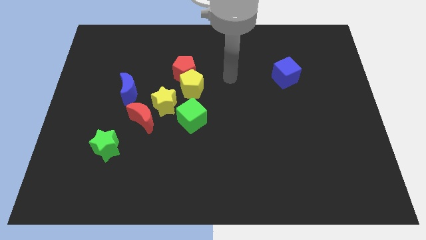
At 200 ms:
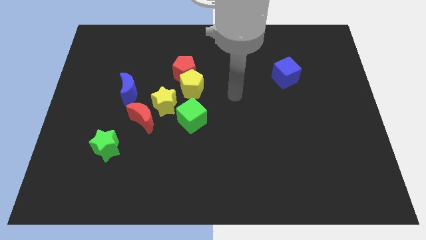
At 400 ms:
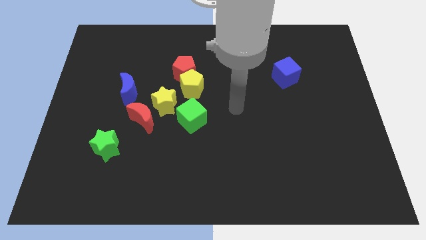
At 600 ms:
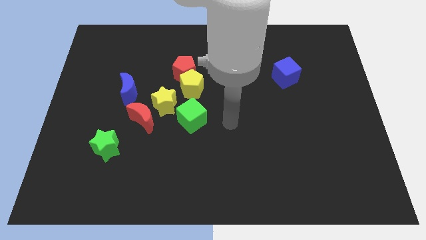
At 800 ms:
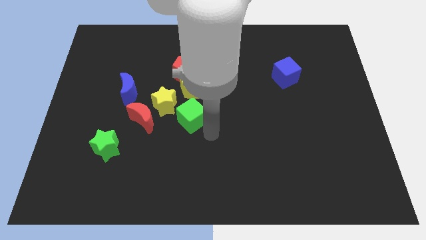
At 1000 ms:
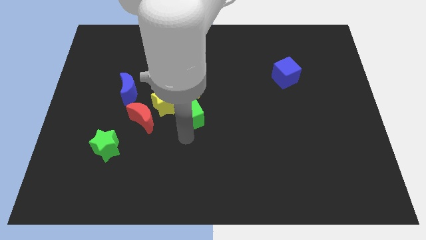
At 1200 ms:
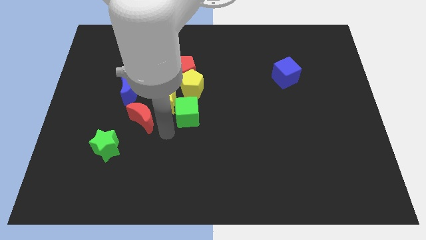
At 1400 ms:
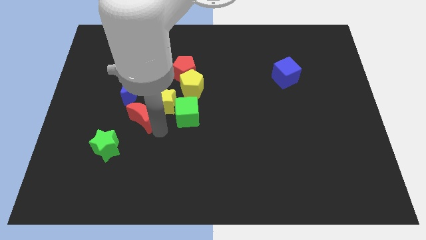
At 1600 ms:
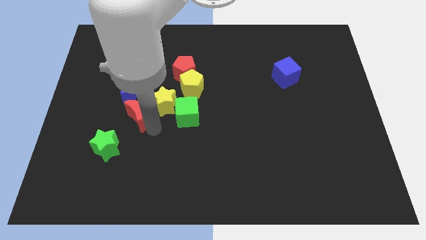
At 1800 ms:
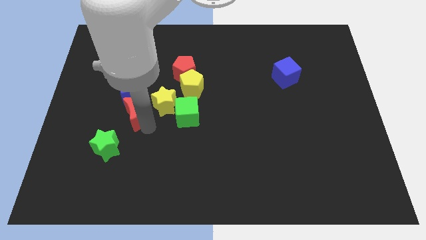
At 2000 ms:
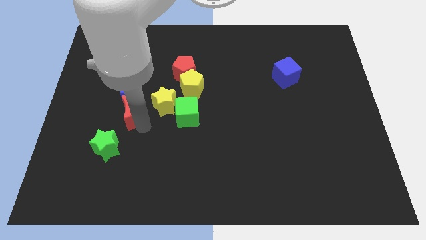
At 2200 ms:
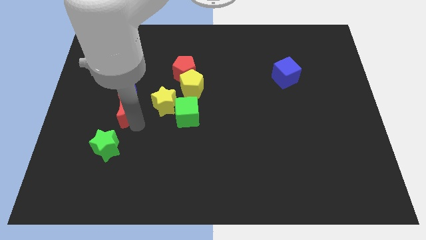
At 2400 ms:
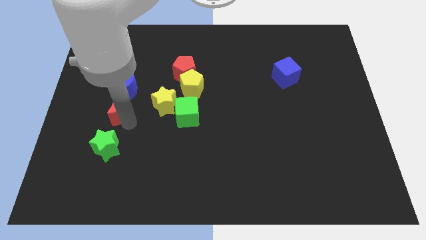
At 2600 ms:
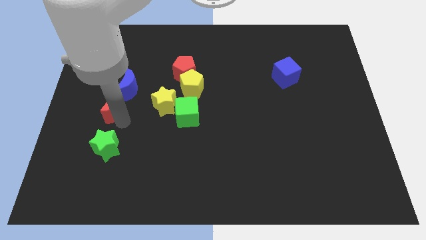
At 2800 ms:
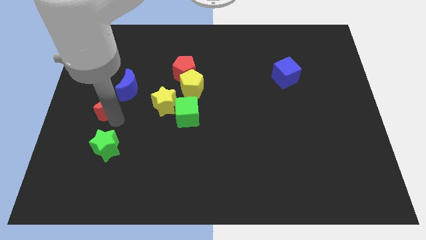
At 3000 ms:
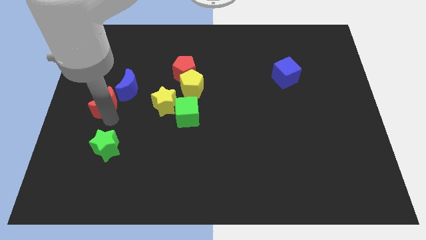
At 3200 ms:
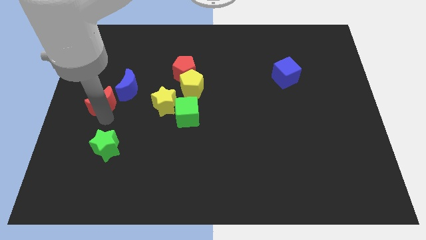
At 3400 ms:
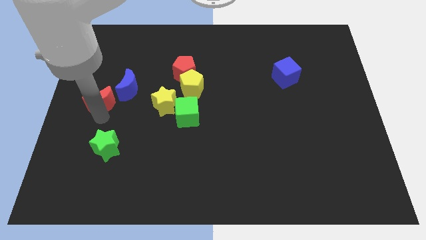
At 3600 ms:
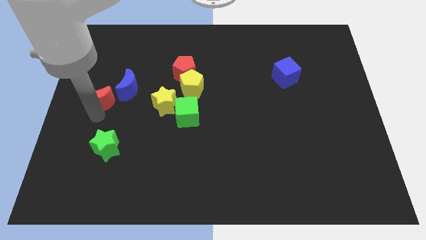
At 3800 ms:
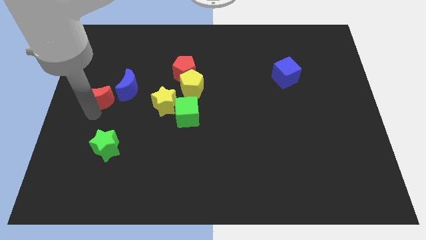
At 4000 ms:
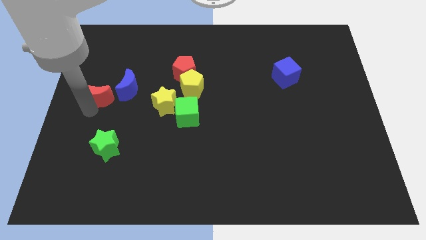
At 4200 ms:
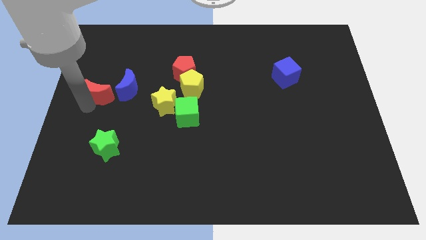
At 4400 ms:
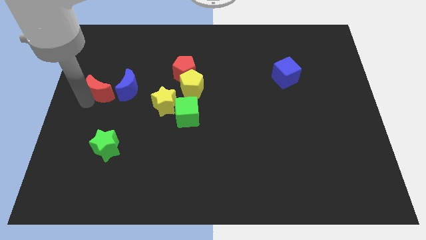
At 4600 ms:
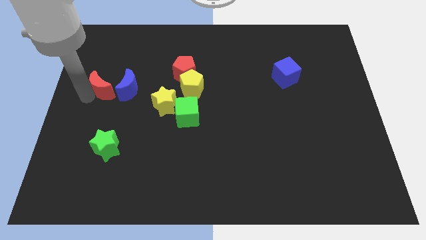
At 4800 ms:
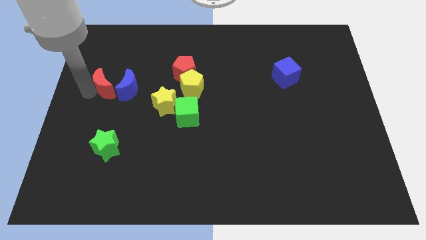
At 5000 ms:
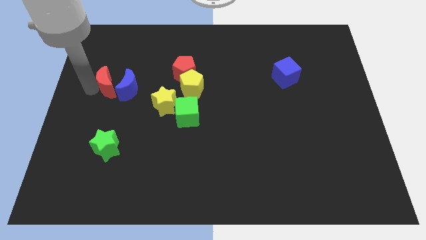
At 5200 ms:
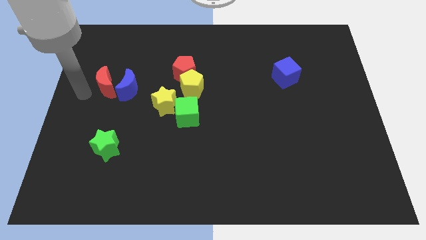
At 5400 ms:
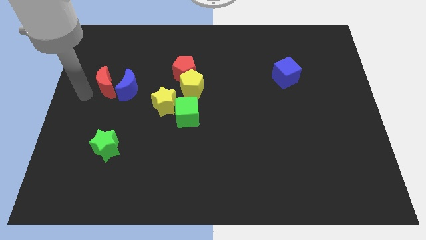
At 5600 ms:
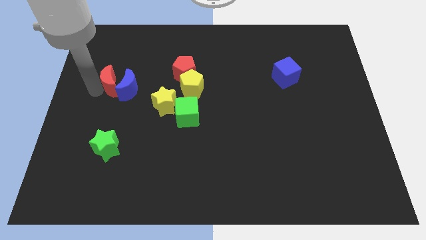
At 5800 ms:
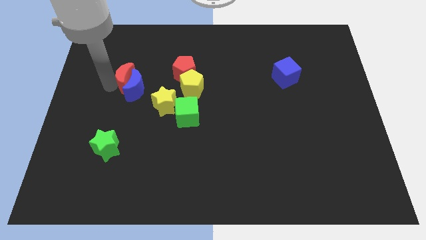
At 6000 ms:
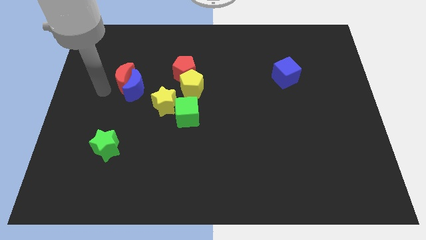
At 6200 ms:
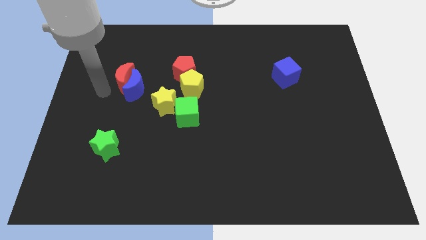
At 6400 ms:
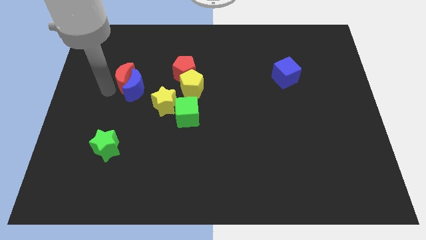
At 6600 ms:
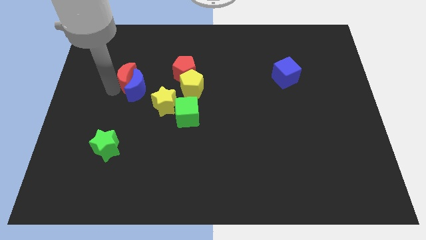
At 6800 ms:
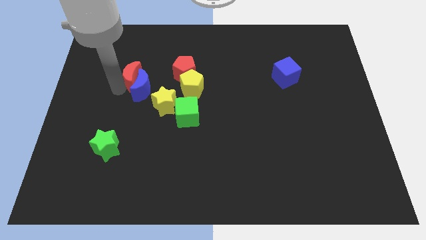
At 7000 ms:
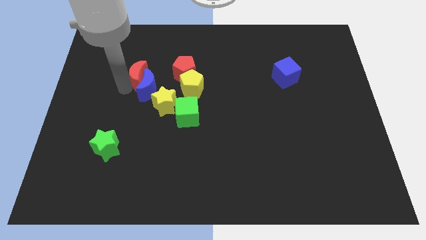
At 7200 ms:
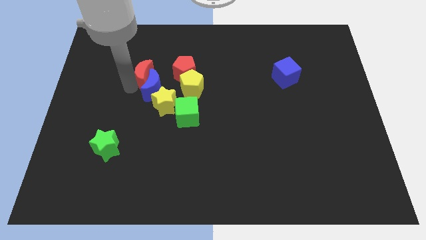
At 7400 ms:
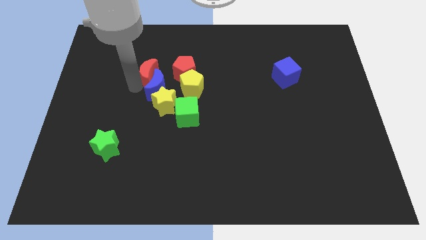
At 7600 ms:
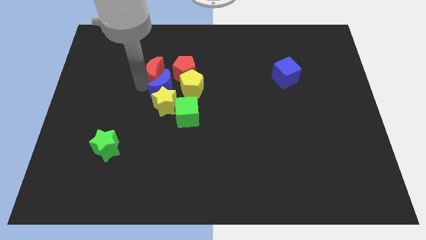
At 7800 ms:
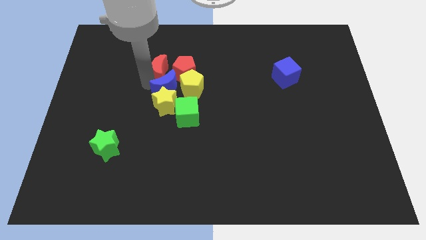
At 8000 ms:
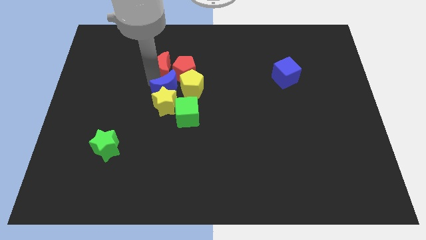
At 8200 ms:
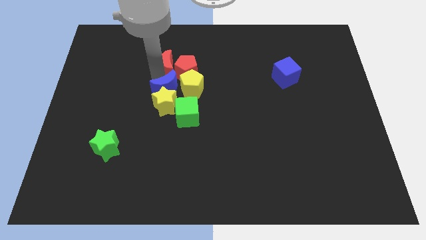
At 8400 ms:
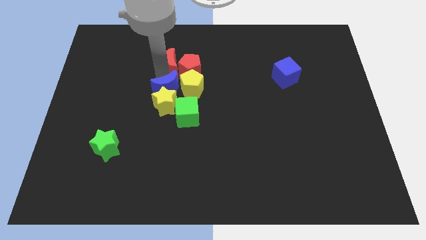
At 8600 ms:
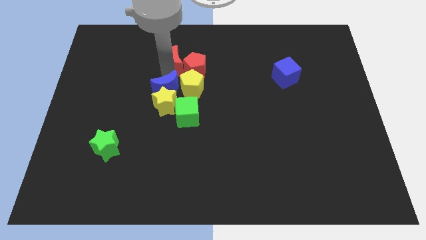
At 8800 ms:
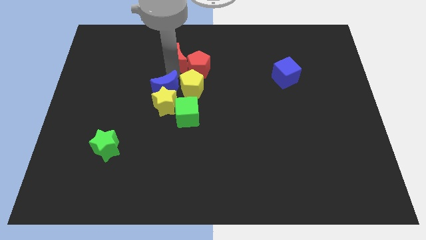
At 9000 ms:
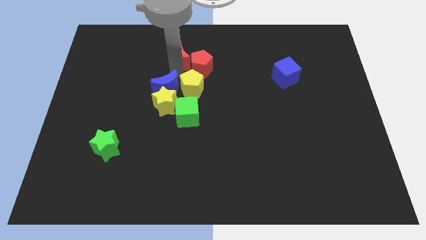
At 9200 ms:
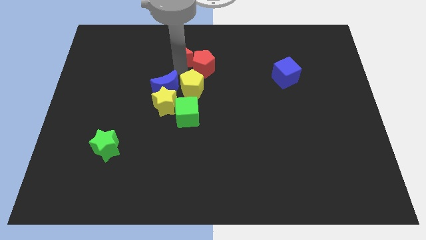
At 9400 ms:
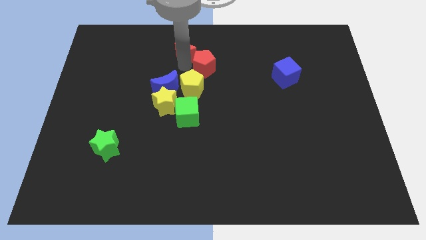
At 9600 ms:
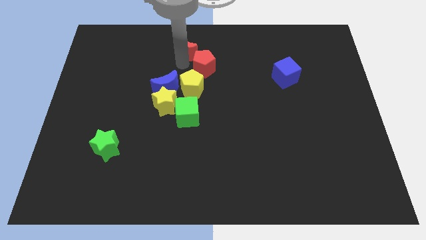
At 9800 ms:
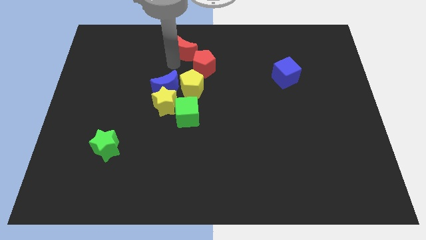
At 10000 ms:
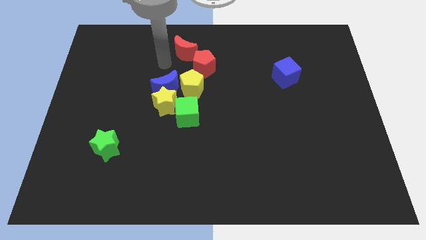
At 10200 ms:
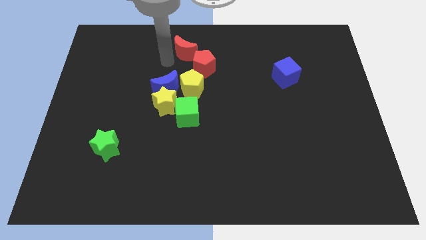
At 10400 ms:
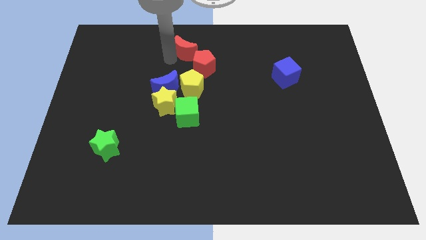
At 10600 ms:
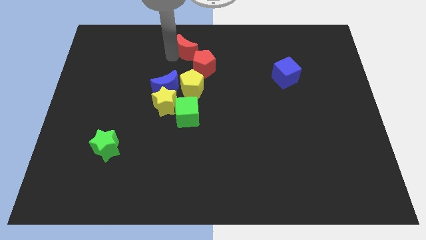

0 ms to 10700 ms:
put the red moon to the top side

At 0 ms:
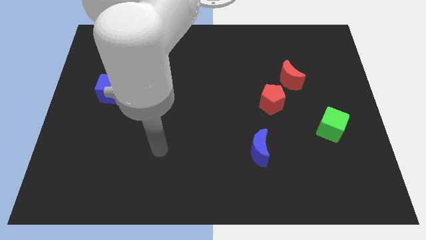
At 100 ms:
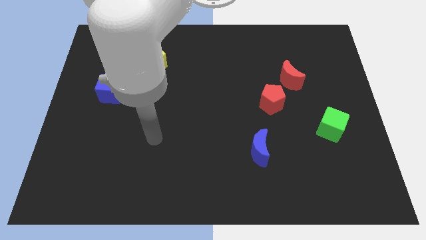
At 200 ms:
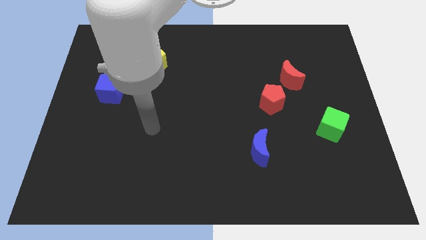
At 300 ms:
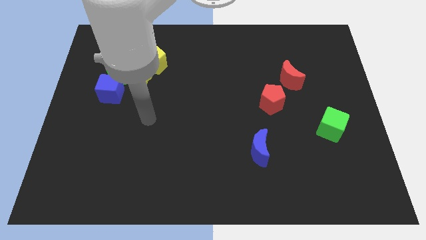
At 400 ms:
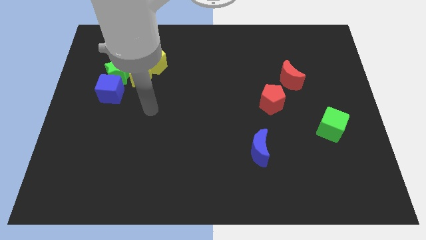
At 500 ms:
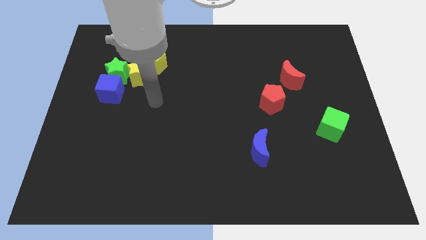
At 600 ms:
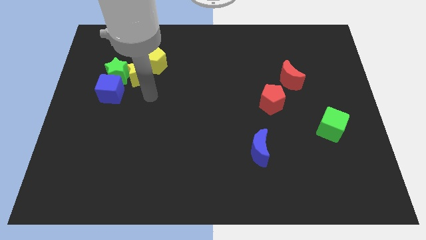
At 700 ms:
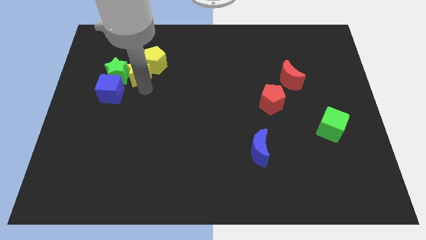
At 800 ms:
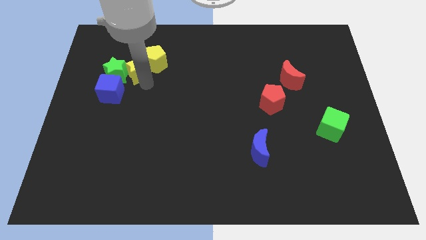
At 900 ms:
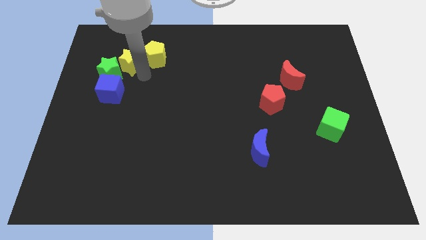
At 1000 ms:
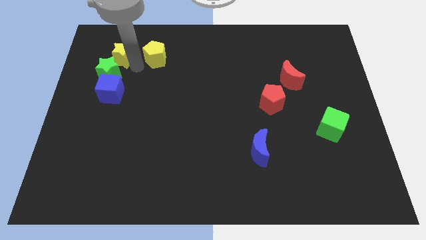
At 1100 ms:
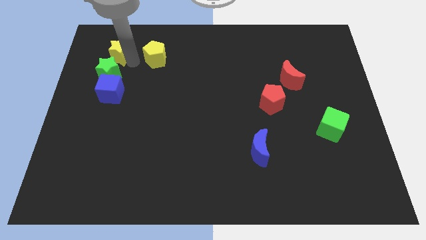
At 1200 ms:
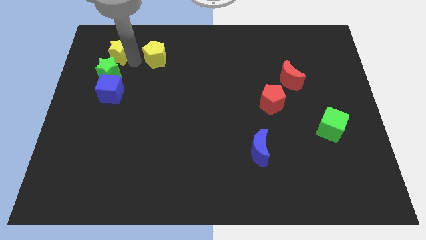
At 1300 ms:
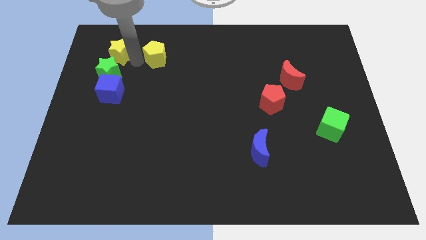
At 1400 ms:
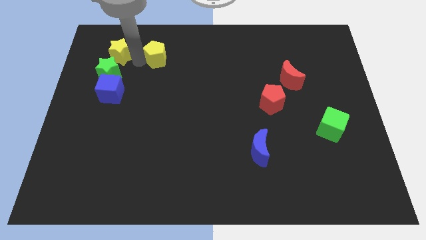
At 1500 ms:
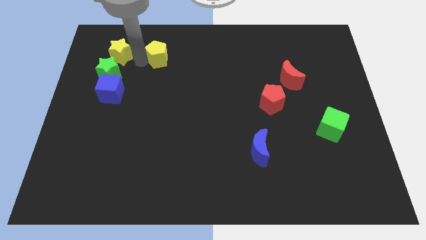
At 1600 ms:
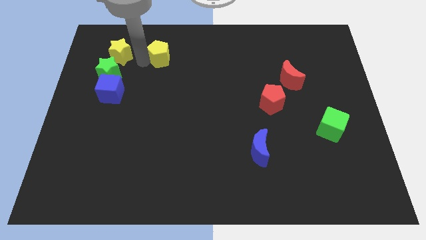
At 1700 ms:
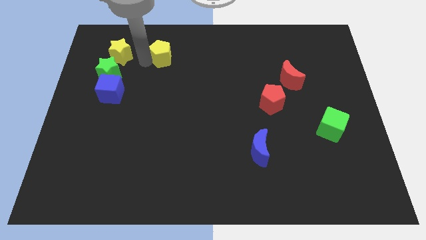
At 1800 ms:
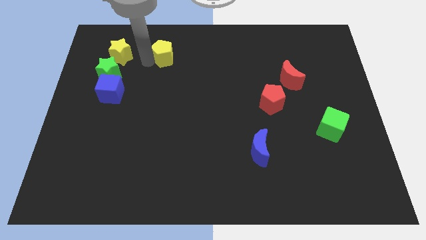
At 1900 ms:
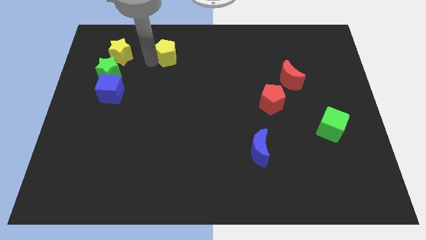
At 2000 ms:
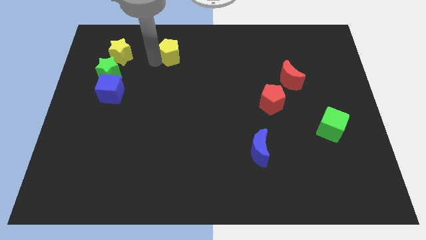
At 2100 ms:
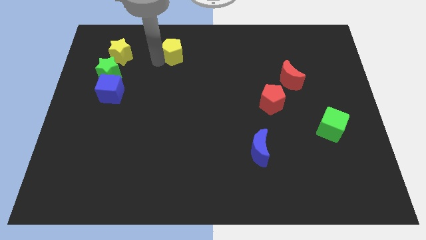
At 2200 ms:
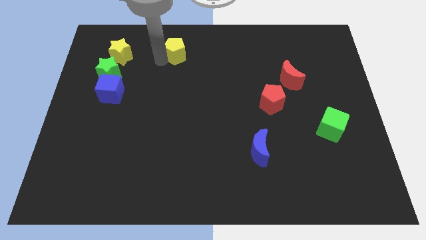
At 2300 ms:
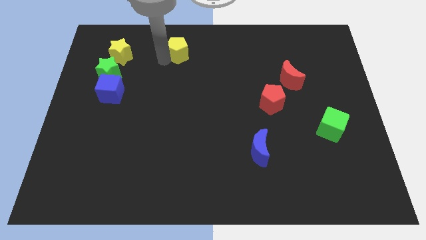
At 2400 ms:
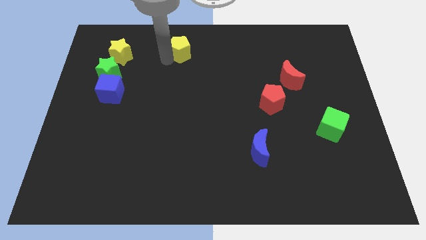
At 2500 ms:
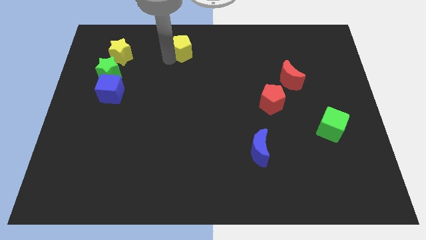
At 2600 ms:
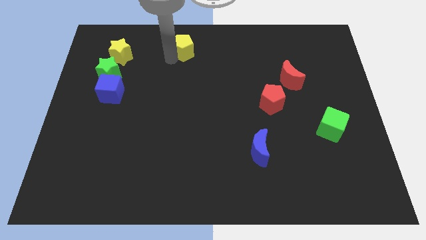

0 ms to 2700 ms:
move the yellow pentagon to the top side
